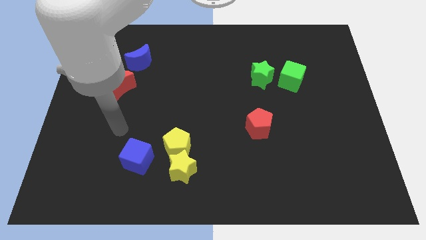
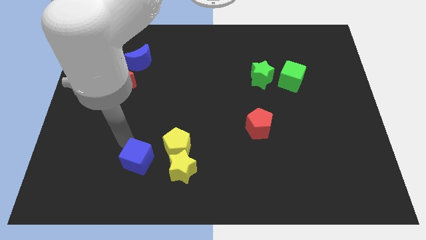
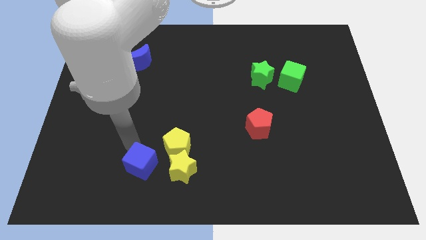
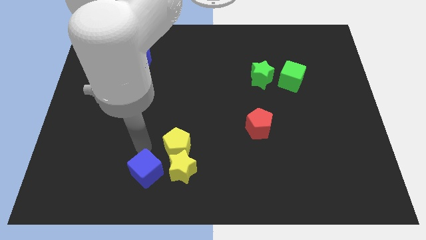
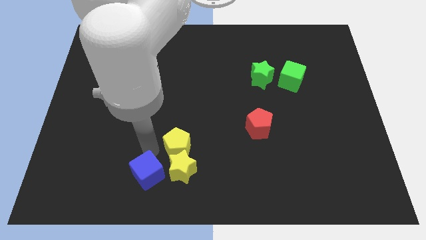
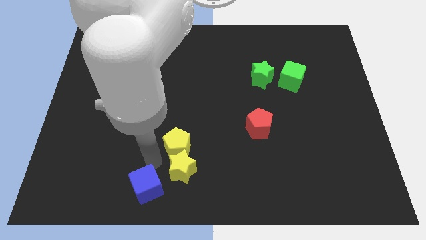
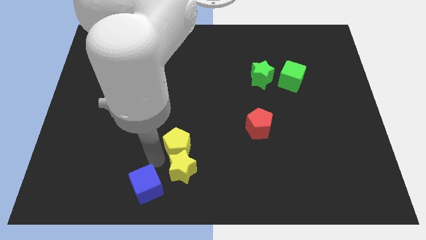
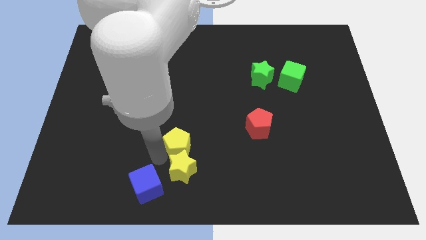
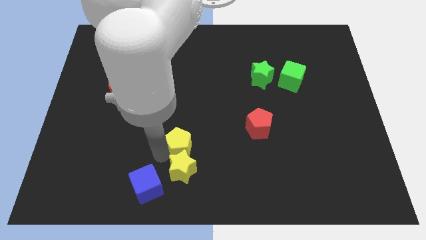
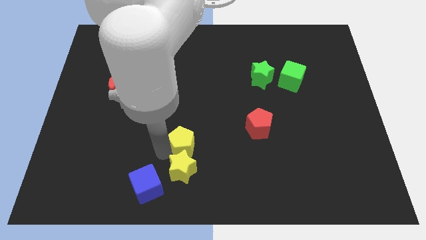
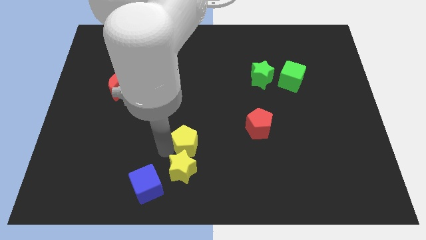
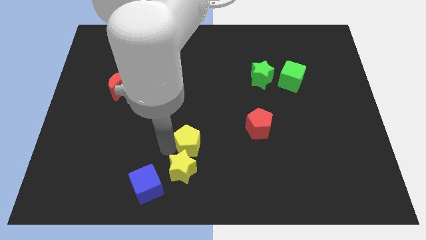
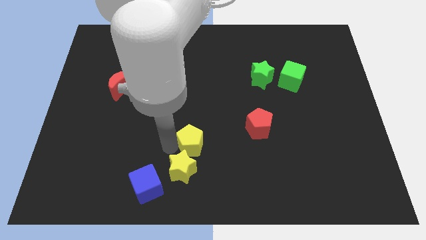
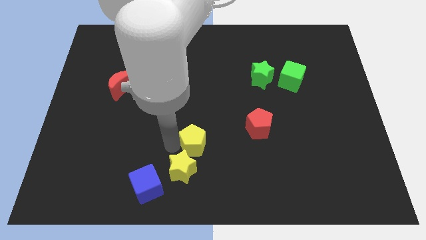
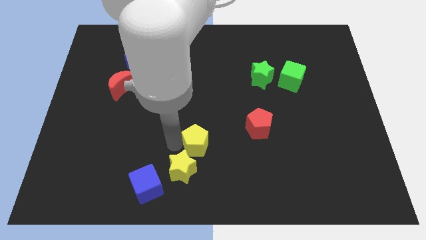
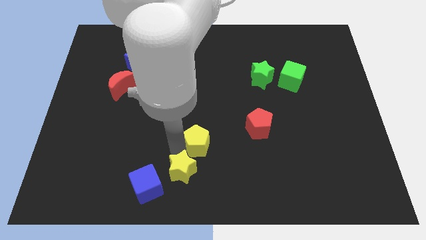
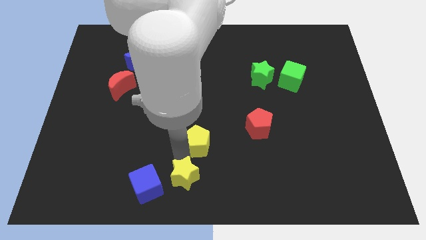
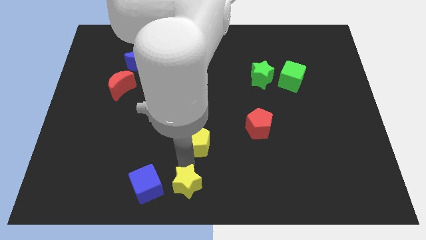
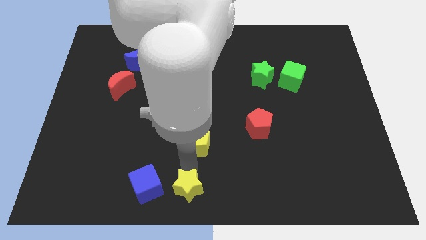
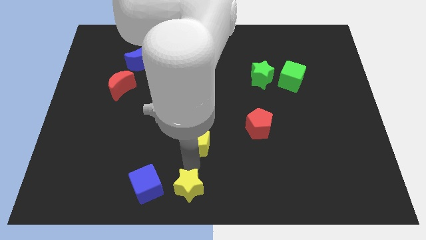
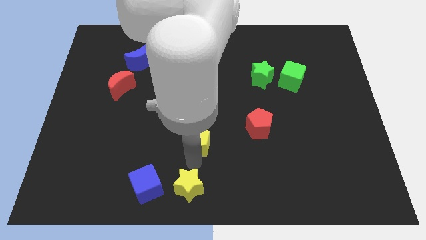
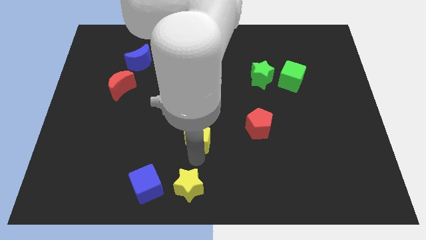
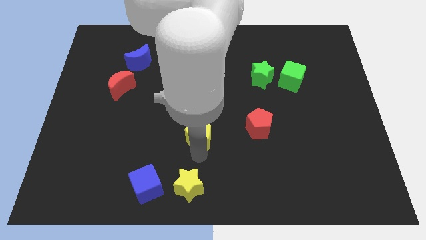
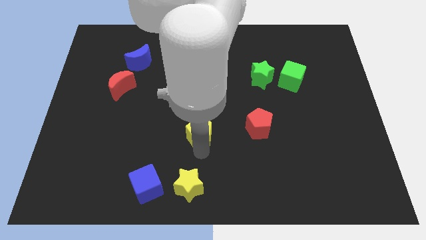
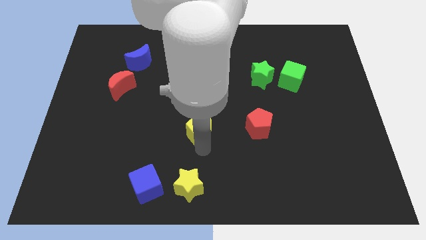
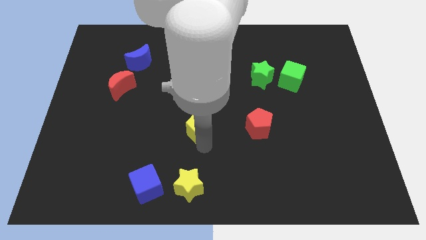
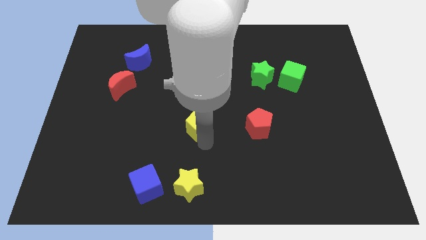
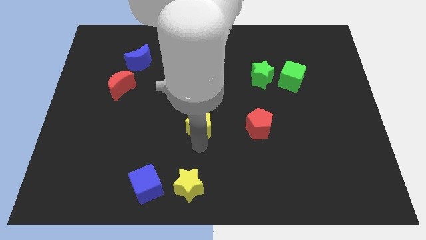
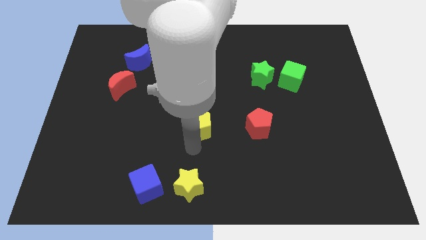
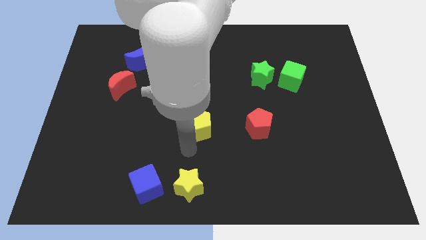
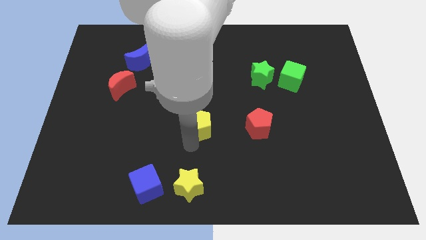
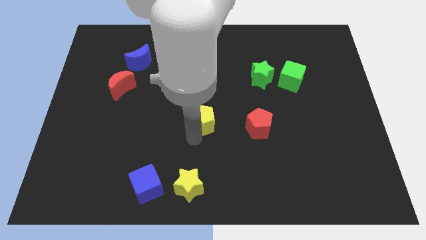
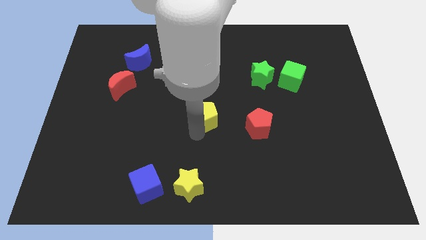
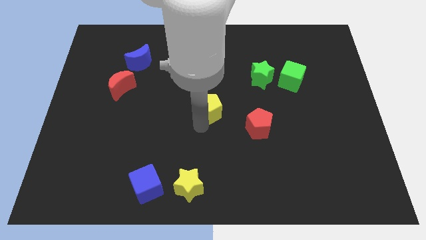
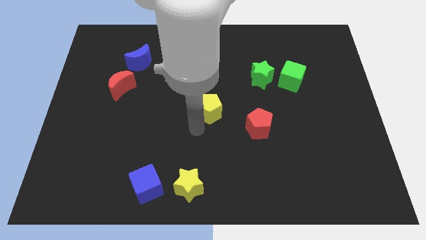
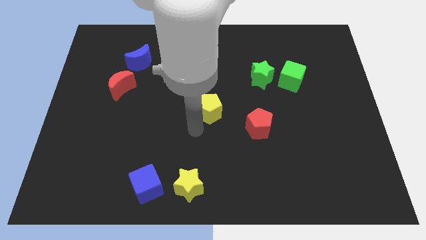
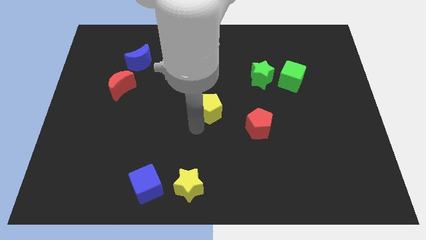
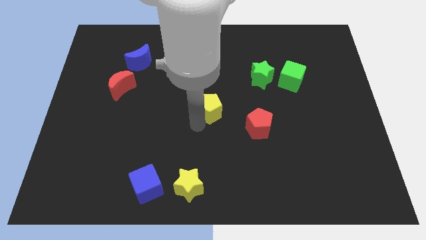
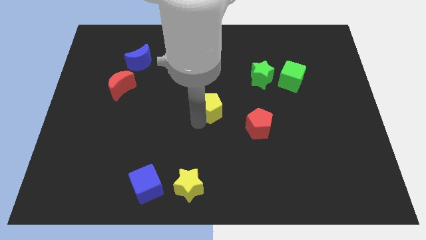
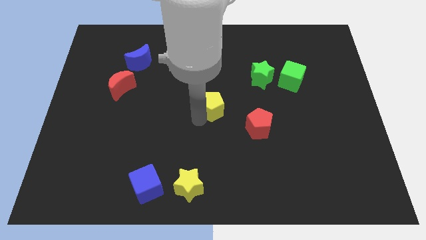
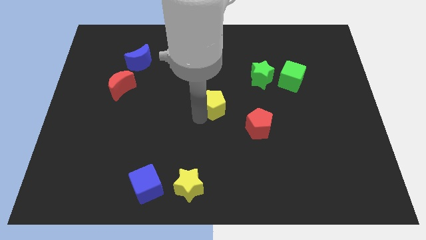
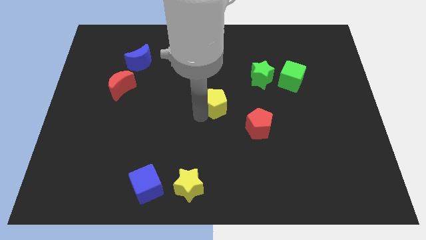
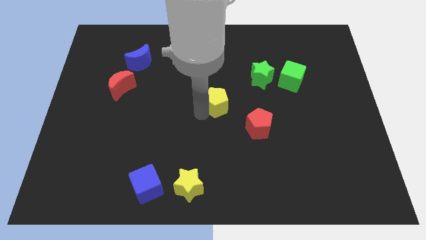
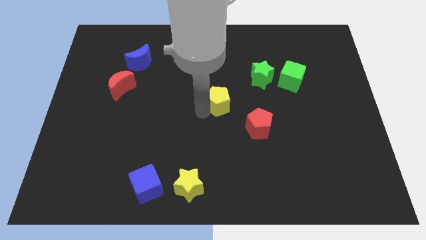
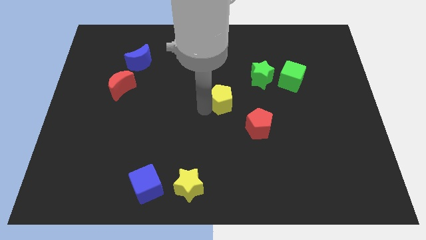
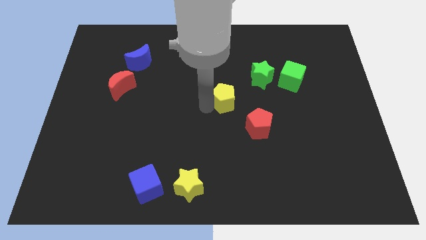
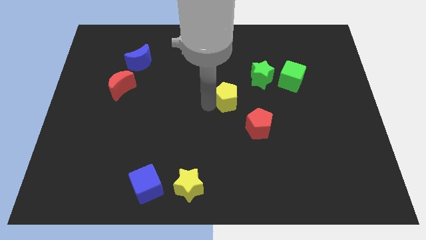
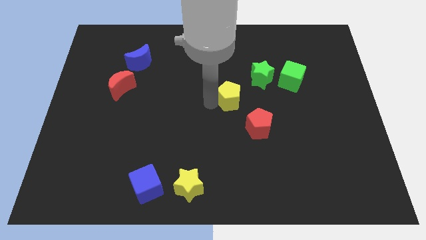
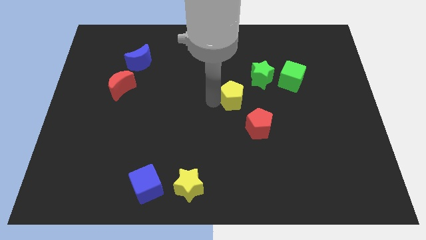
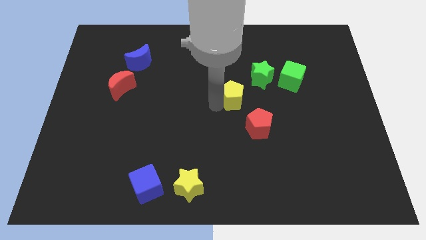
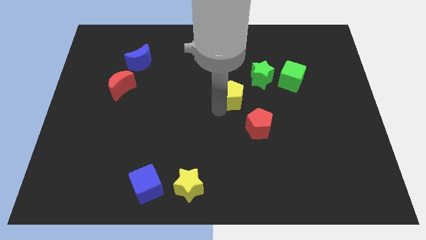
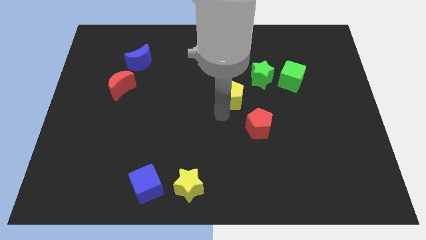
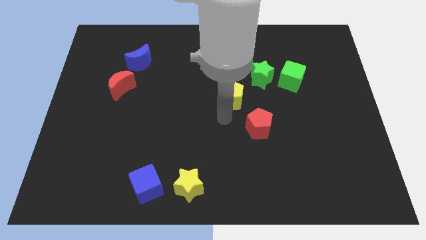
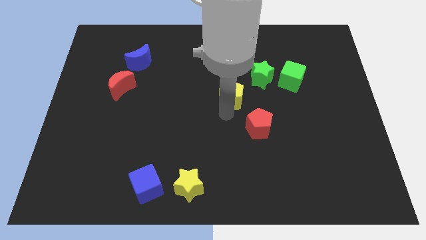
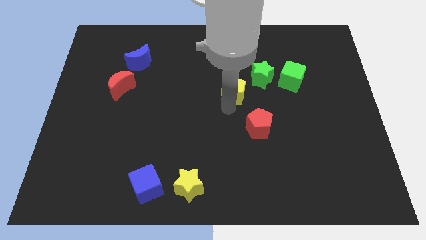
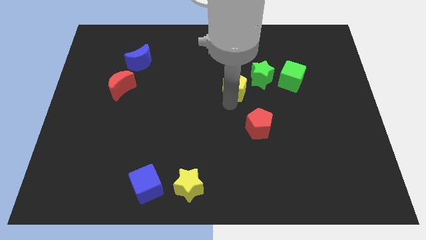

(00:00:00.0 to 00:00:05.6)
move the yellow pentagon upwards and right diagonally

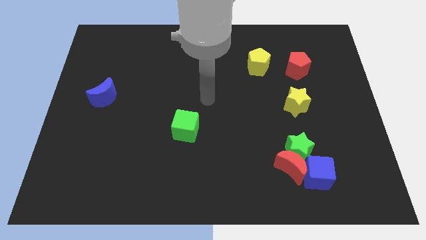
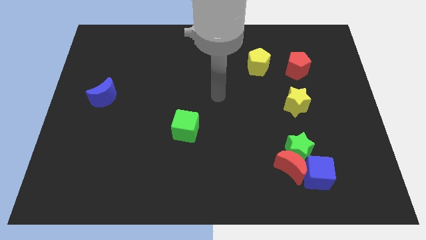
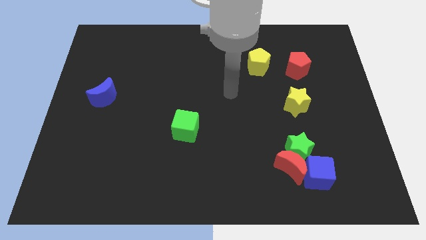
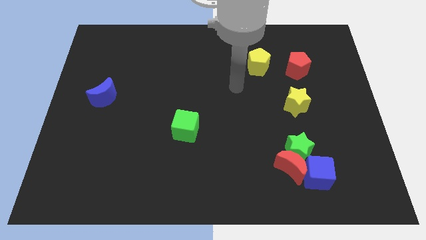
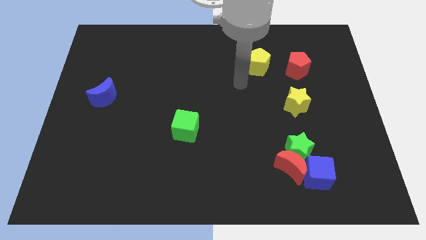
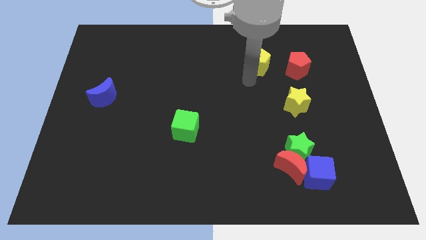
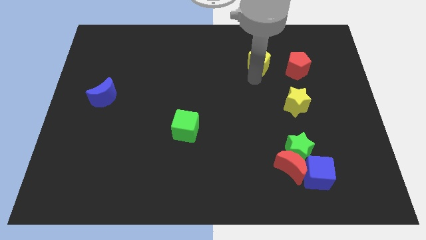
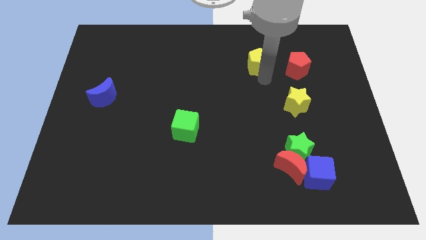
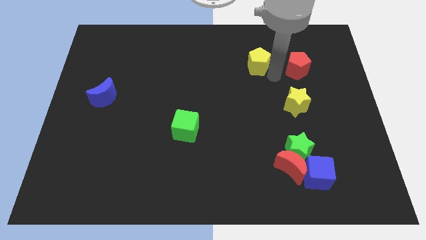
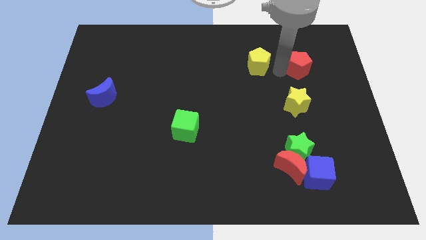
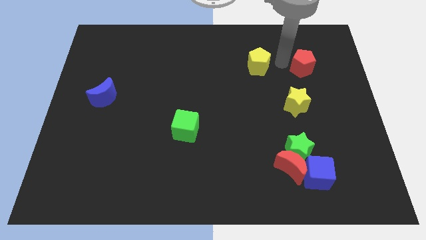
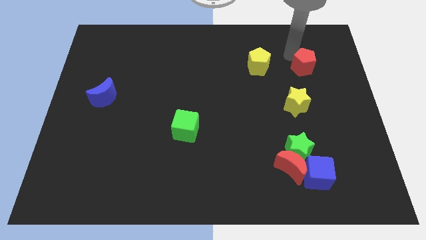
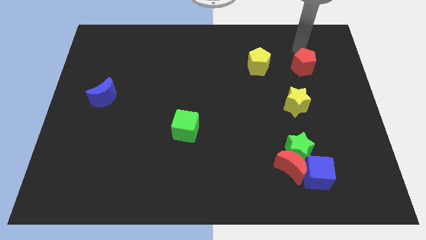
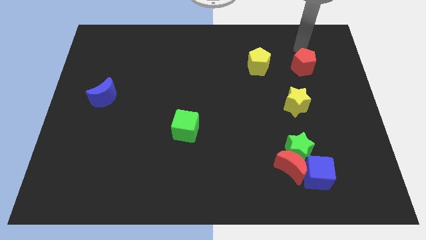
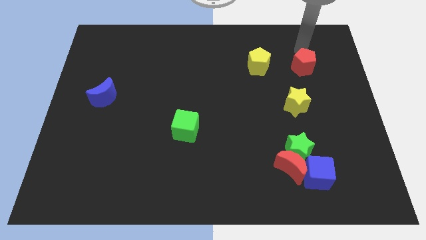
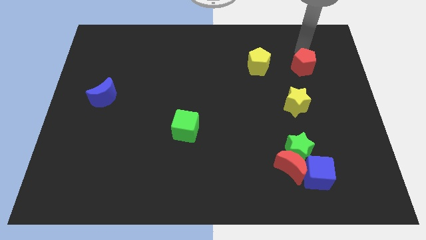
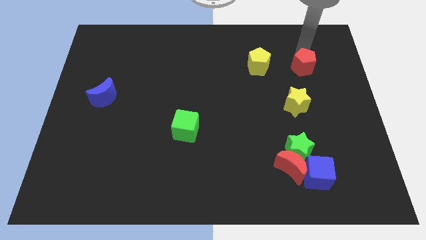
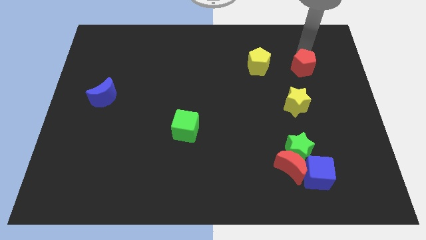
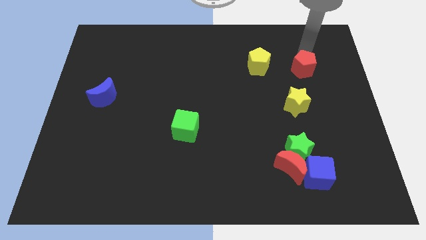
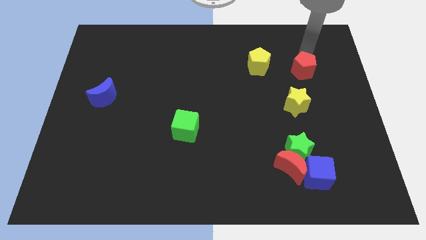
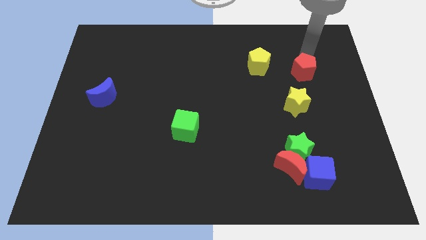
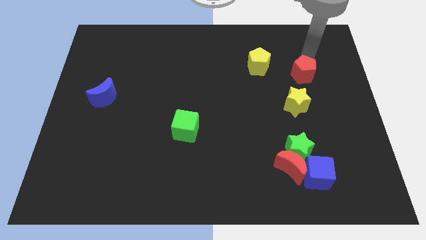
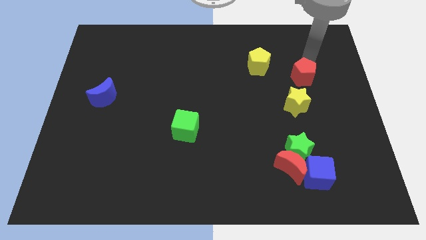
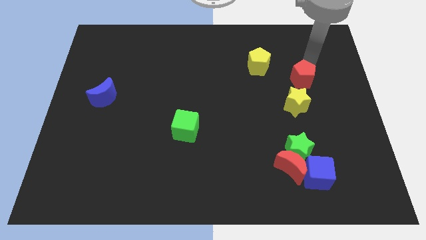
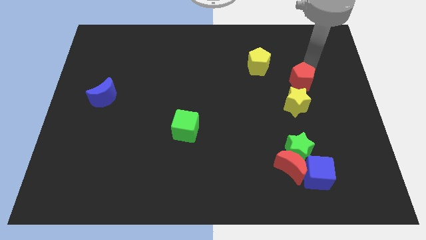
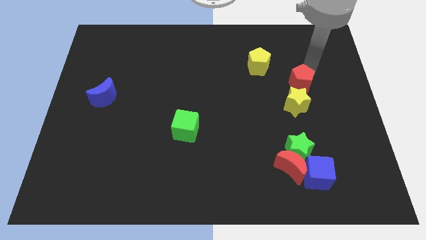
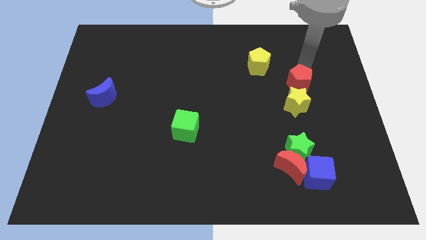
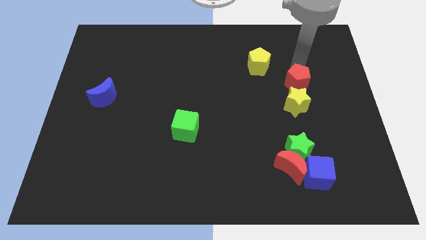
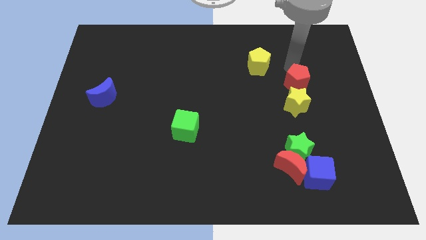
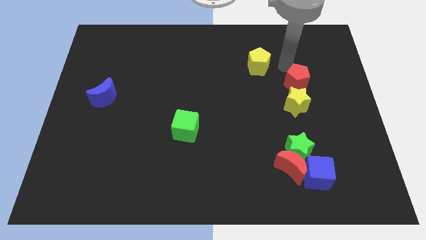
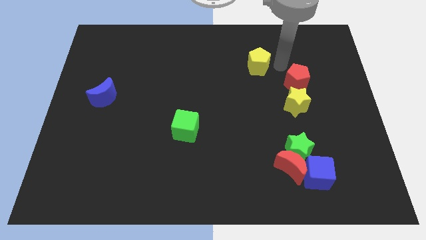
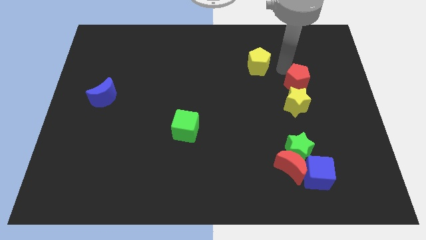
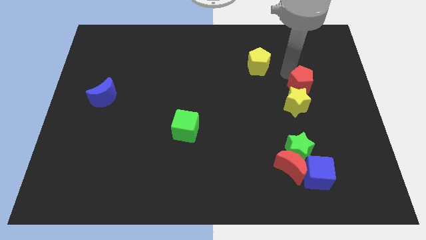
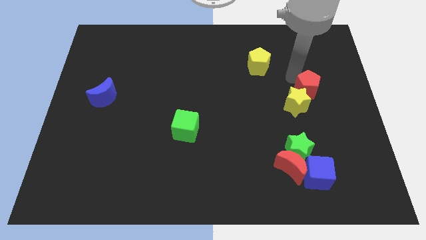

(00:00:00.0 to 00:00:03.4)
move the red pentagon slightly downwards
